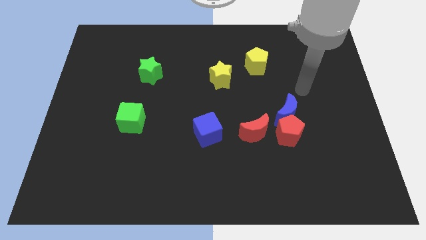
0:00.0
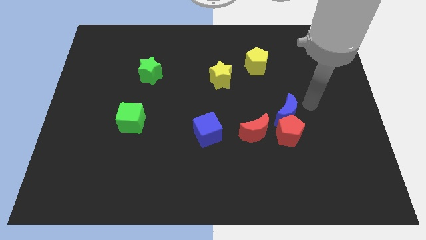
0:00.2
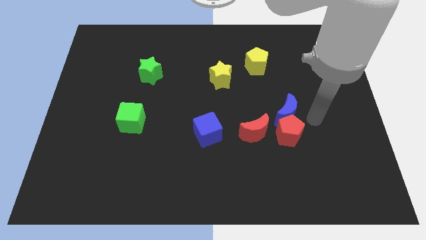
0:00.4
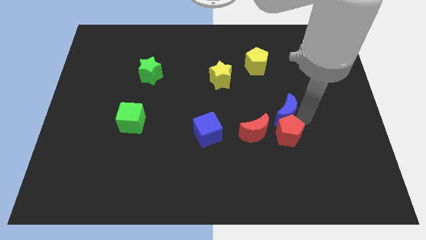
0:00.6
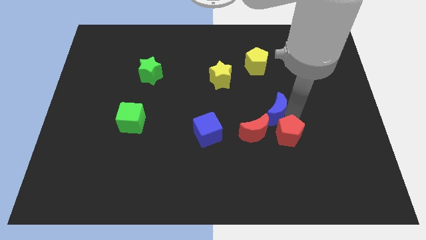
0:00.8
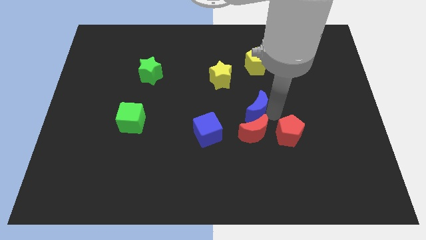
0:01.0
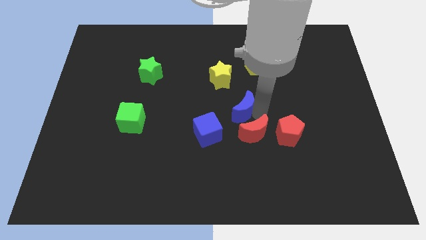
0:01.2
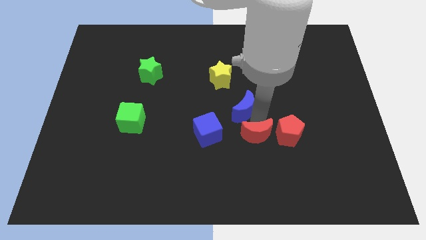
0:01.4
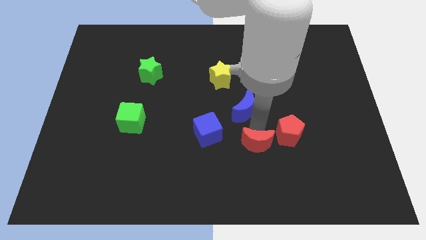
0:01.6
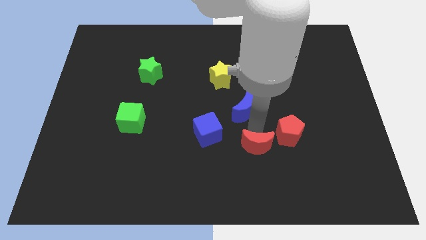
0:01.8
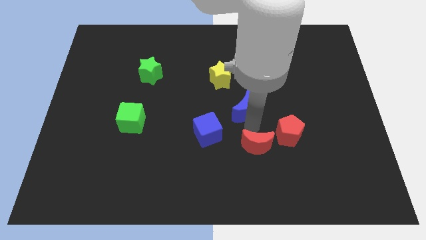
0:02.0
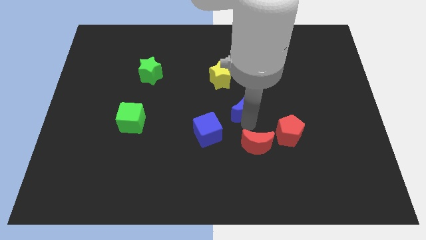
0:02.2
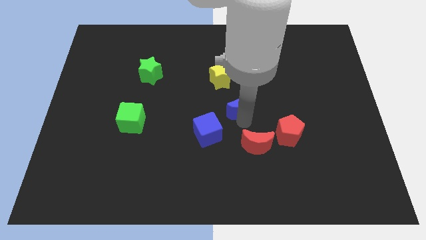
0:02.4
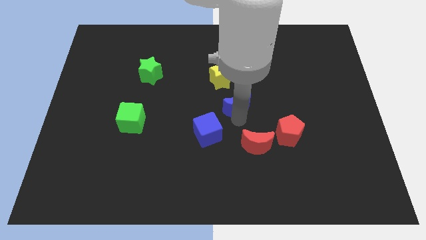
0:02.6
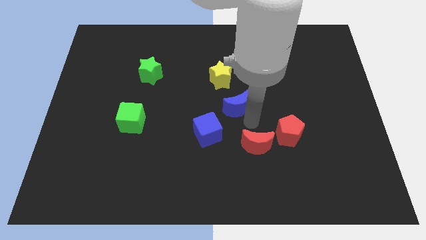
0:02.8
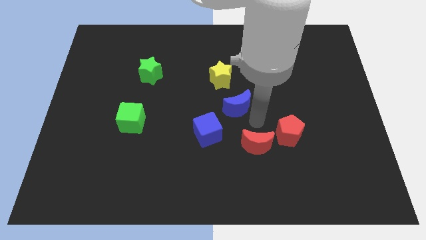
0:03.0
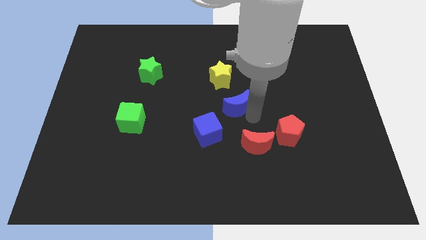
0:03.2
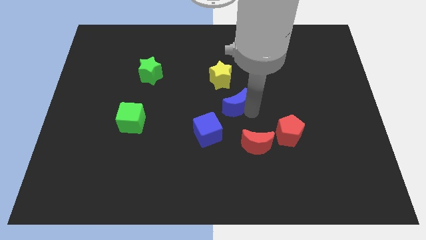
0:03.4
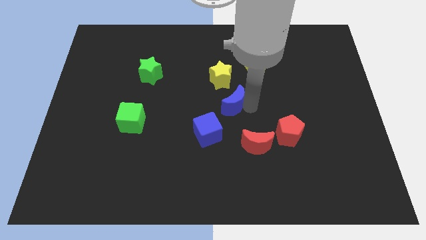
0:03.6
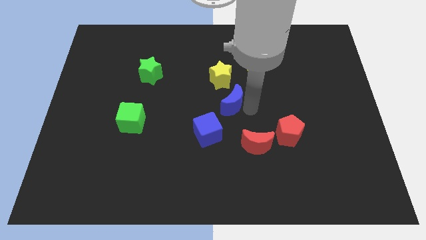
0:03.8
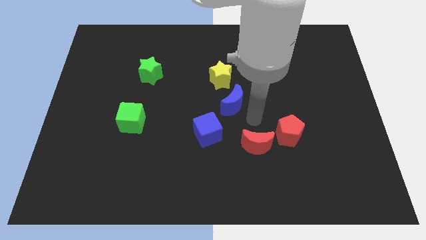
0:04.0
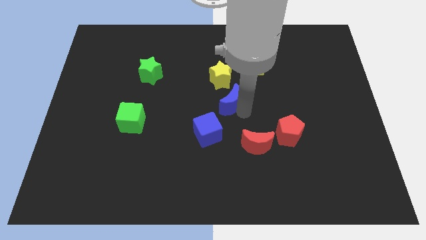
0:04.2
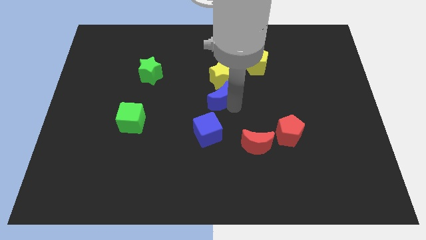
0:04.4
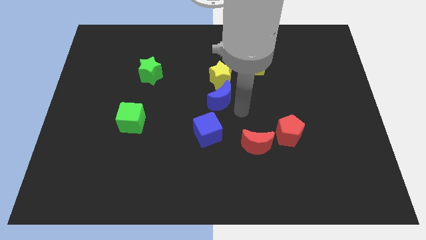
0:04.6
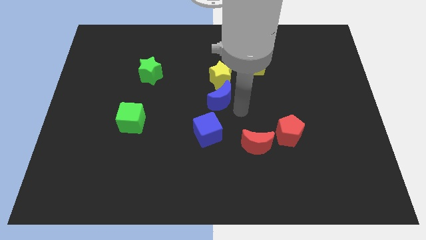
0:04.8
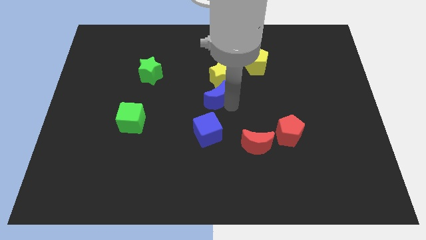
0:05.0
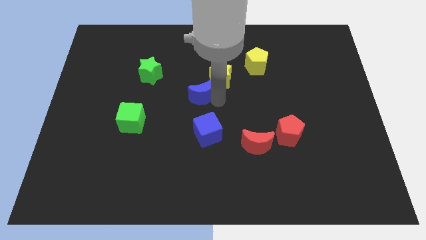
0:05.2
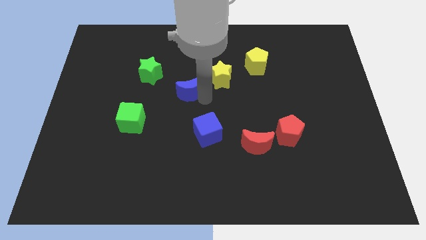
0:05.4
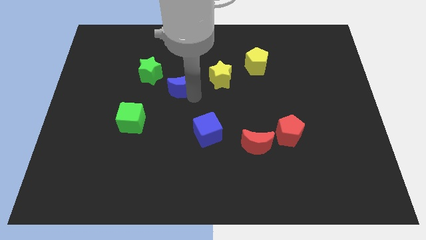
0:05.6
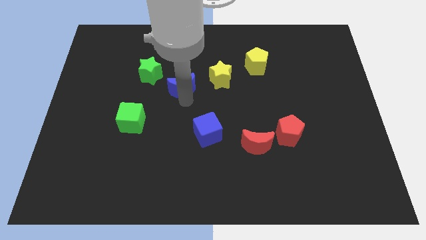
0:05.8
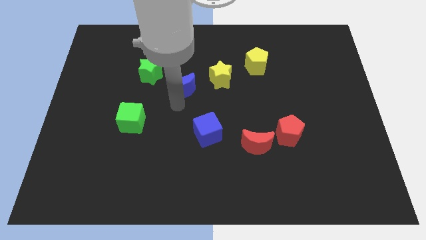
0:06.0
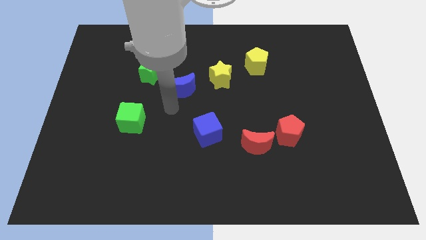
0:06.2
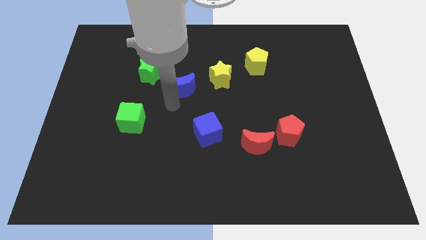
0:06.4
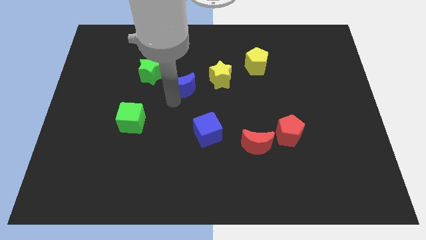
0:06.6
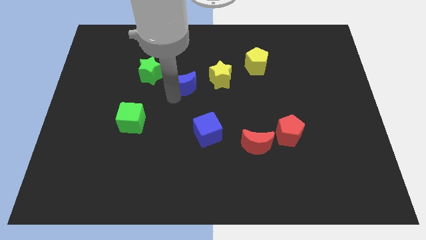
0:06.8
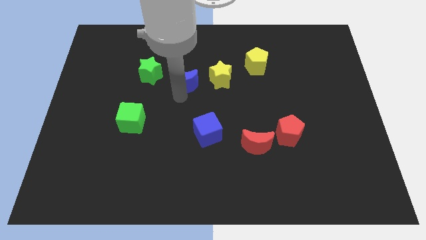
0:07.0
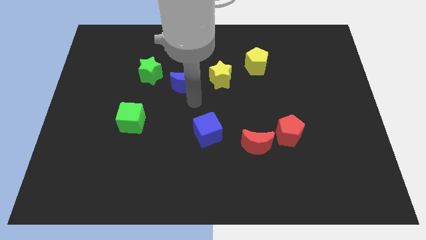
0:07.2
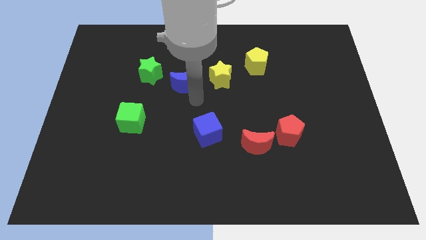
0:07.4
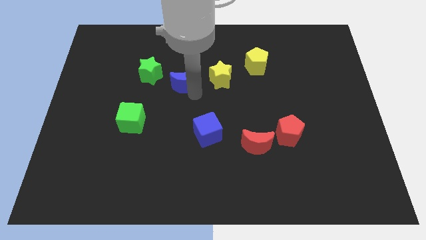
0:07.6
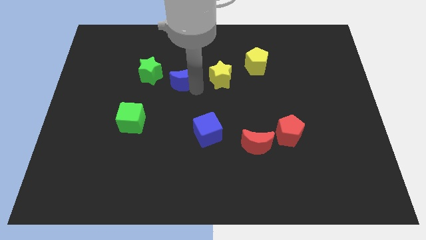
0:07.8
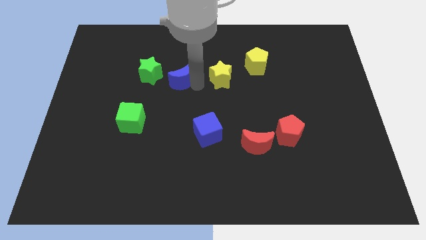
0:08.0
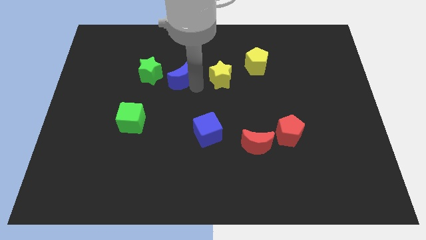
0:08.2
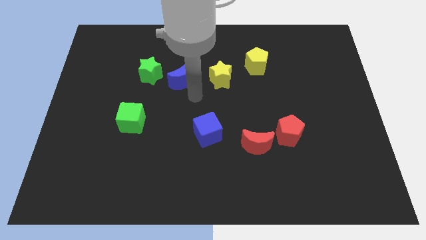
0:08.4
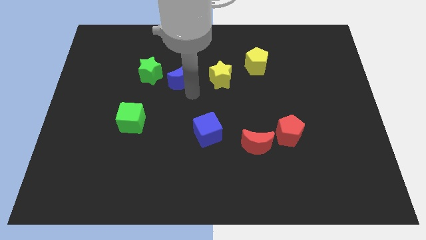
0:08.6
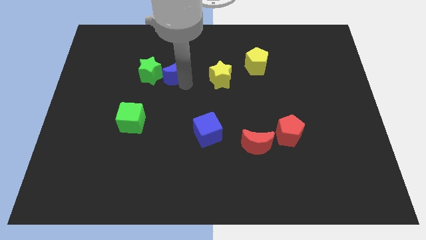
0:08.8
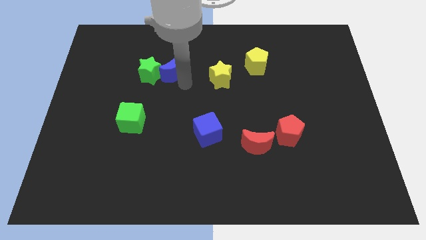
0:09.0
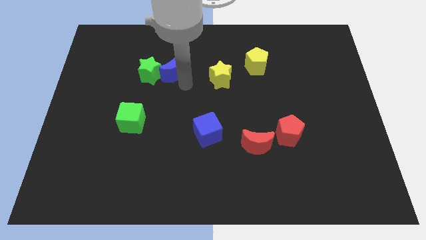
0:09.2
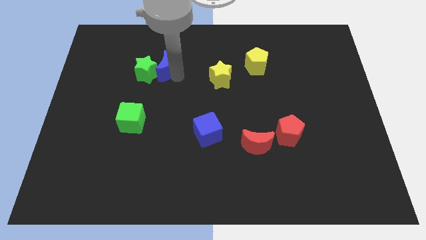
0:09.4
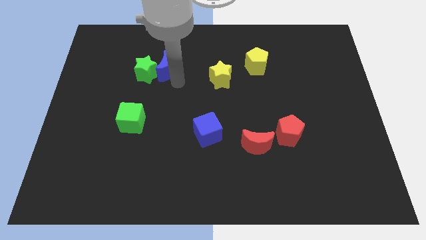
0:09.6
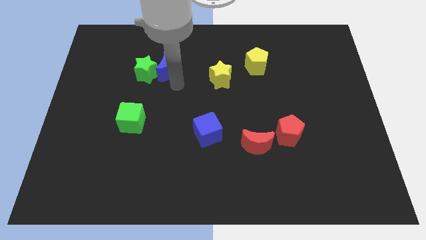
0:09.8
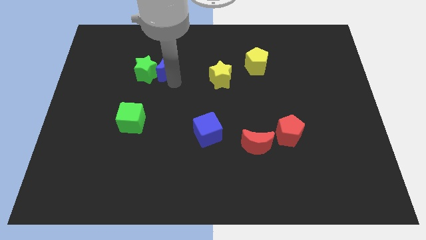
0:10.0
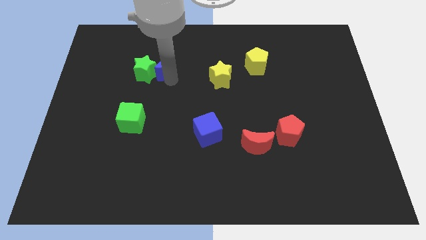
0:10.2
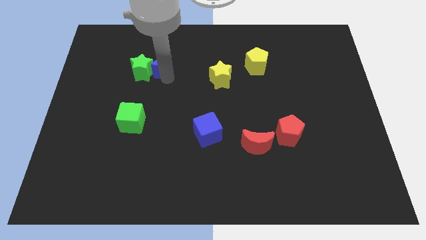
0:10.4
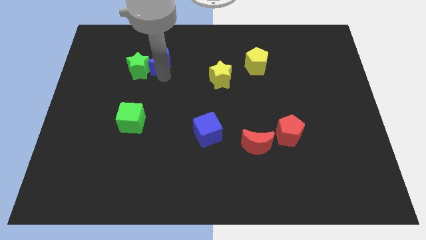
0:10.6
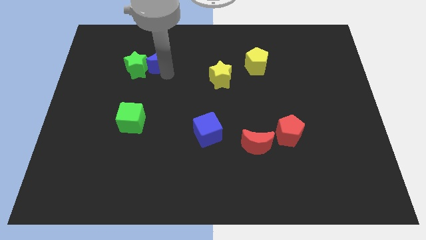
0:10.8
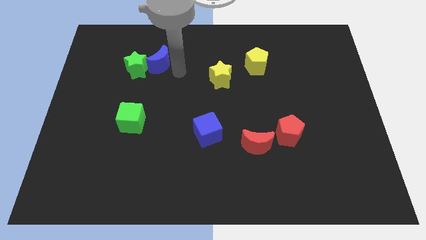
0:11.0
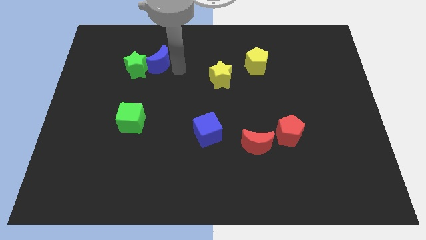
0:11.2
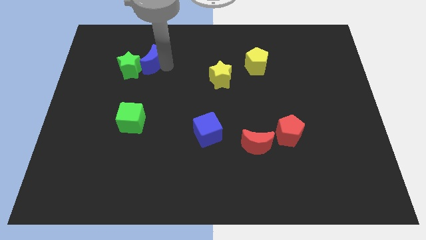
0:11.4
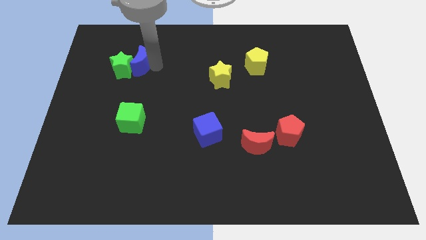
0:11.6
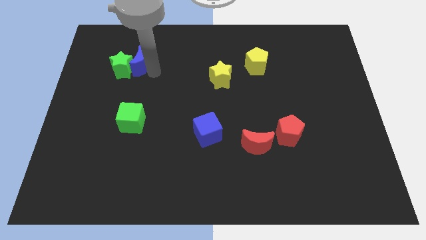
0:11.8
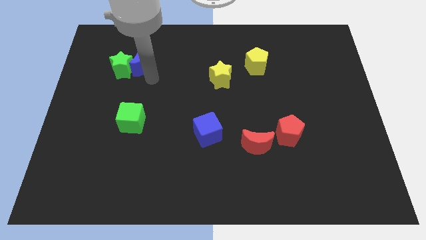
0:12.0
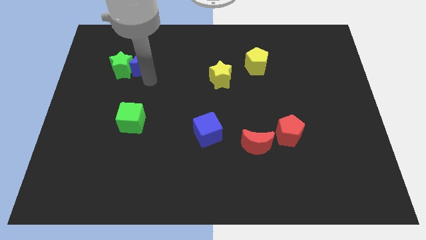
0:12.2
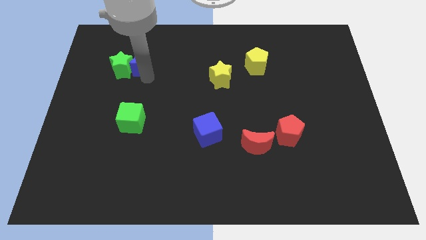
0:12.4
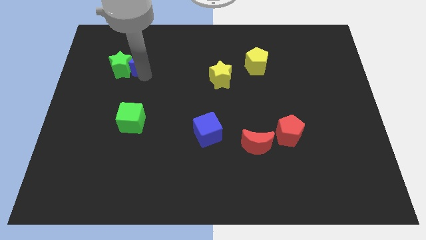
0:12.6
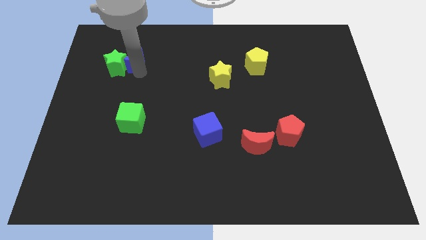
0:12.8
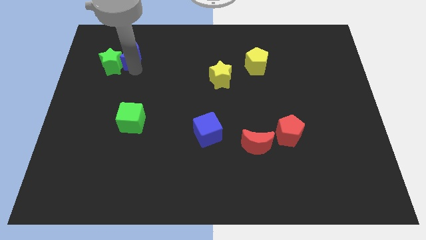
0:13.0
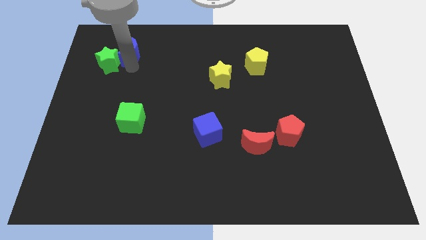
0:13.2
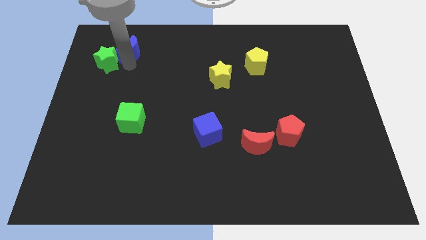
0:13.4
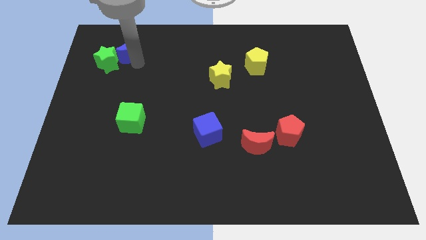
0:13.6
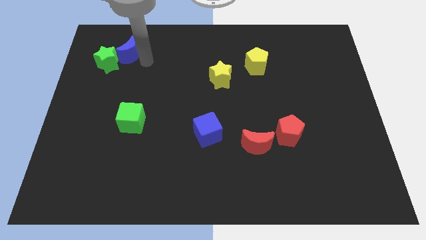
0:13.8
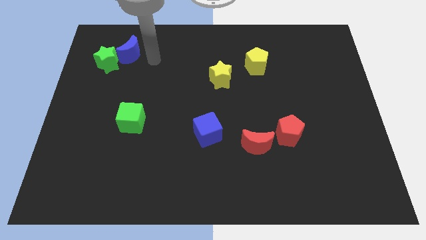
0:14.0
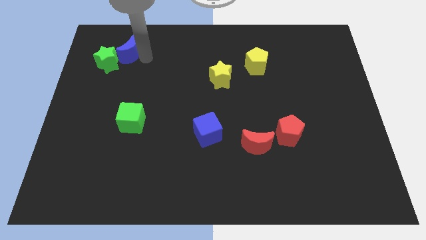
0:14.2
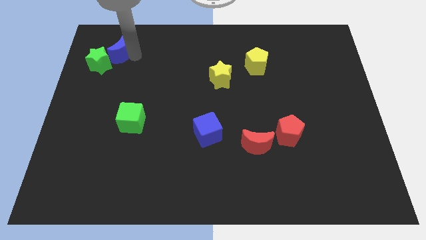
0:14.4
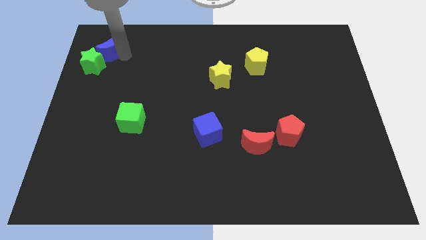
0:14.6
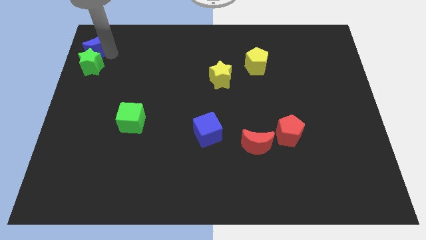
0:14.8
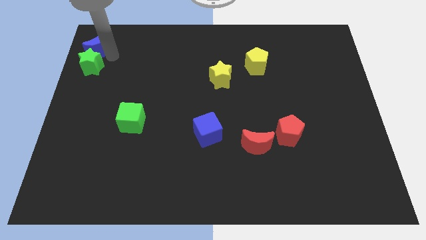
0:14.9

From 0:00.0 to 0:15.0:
put the blue moon to the upper left corner
